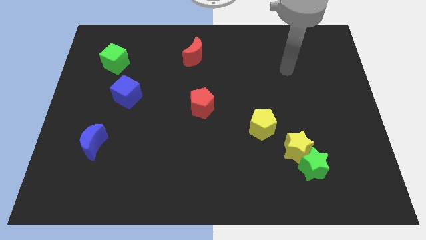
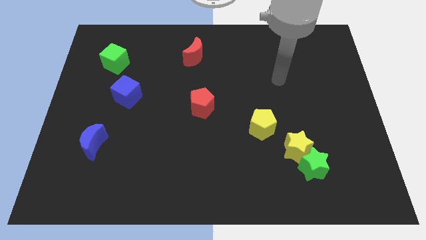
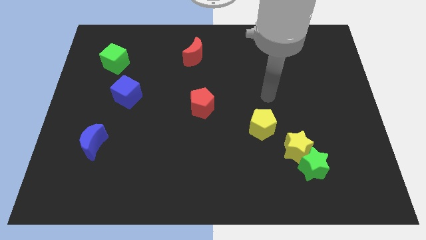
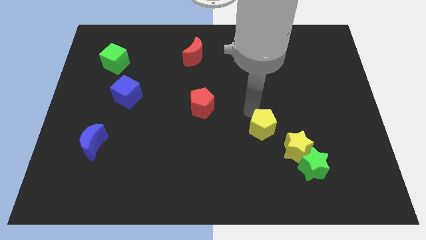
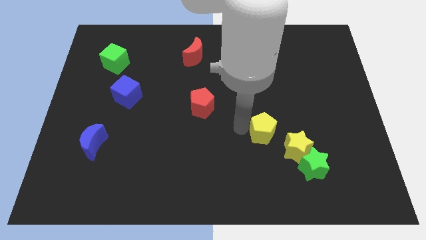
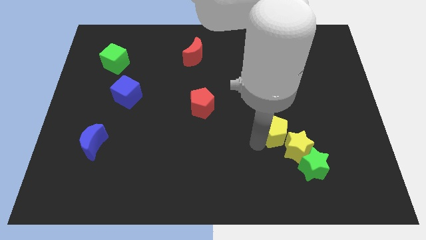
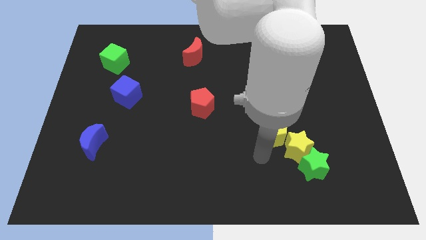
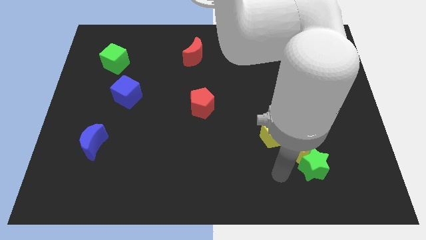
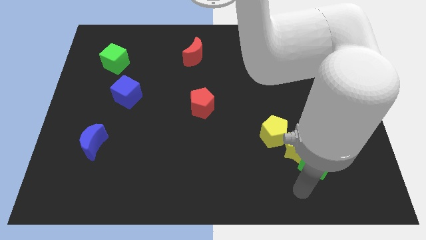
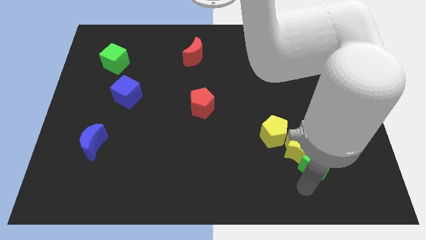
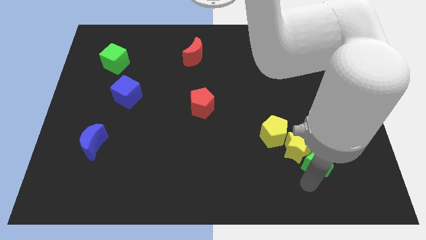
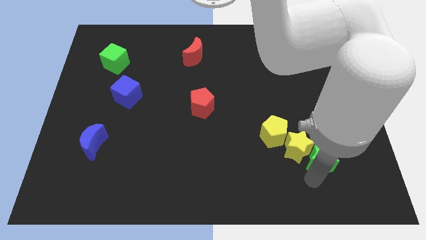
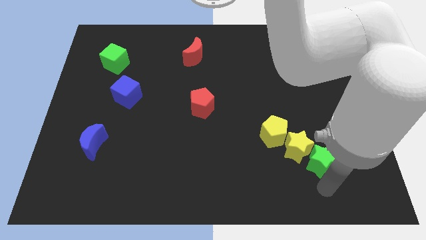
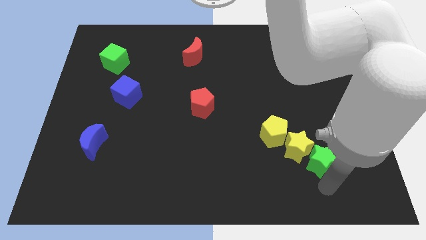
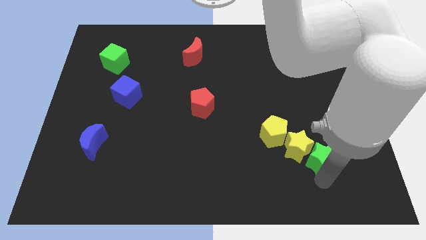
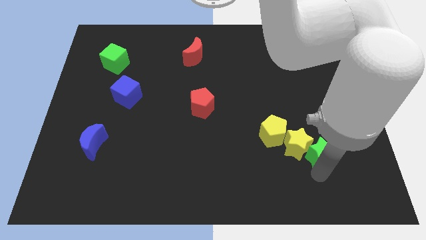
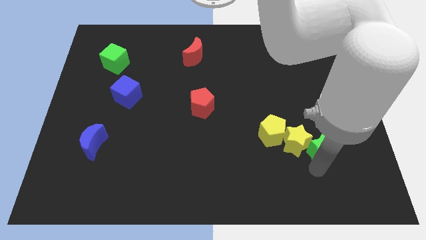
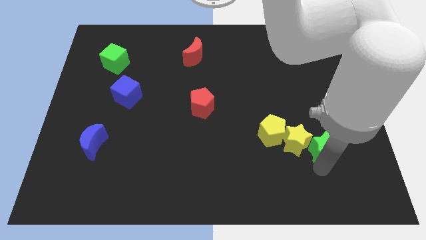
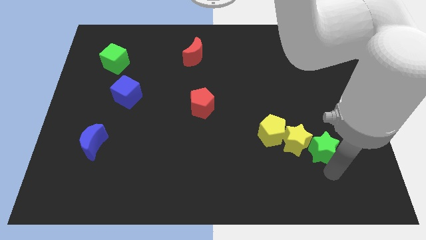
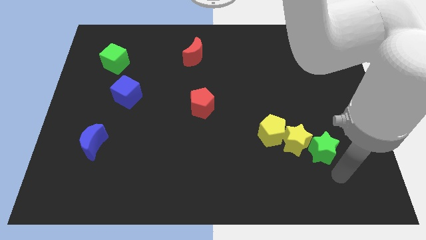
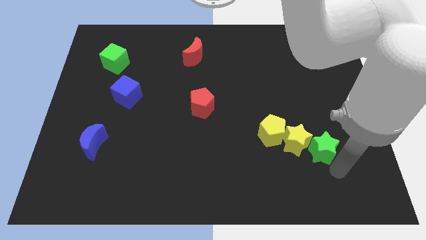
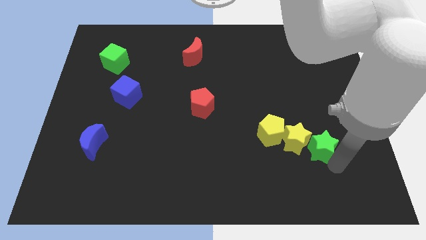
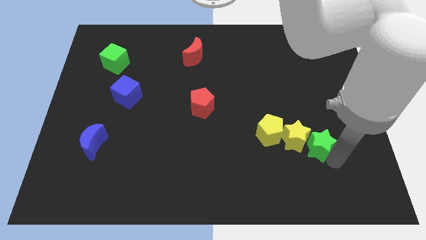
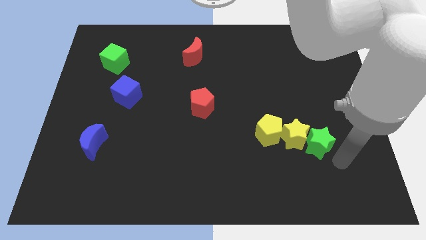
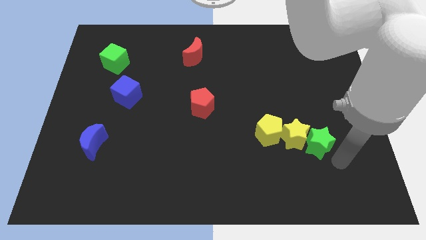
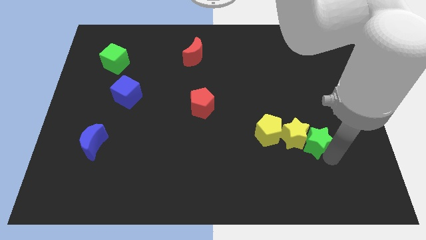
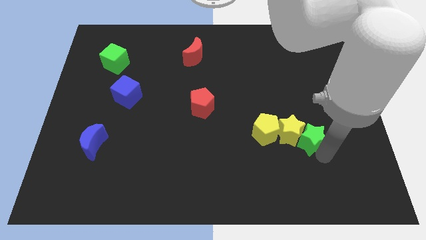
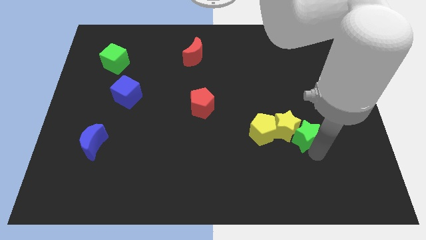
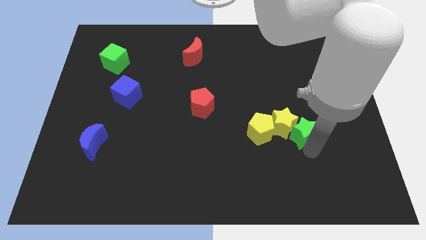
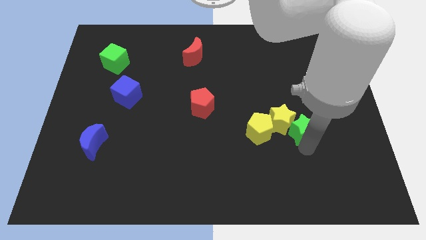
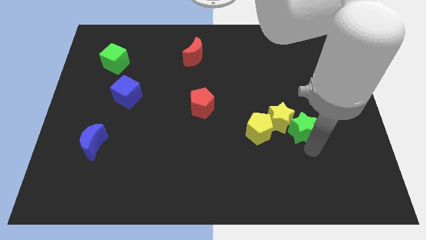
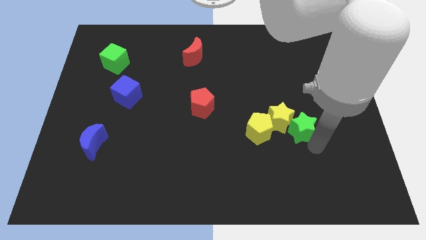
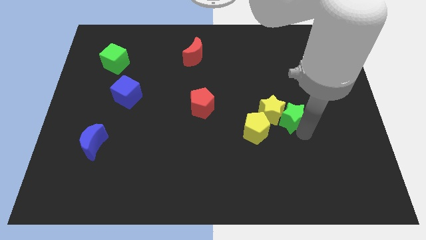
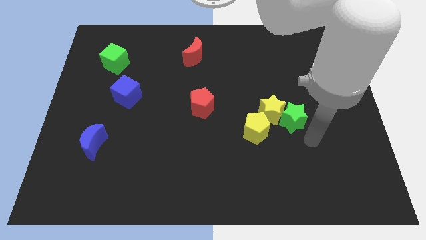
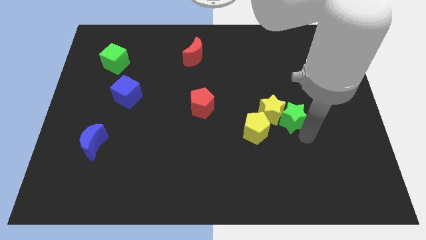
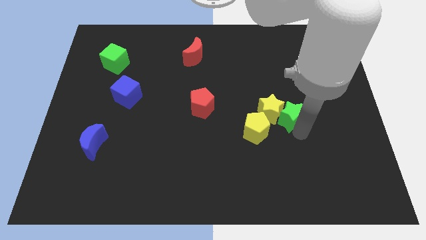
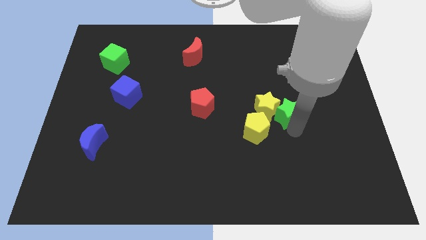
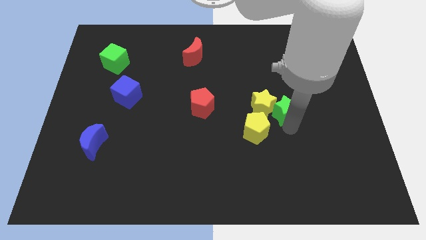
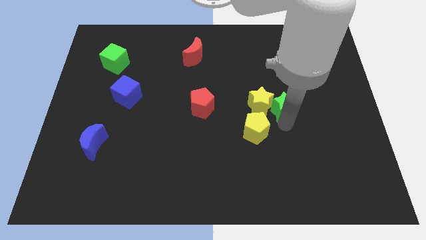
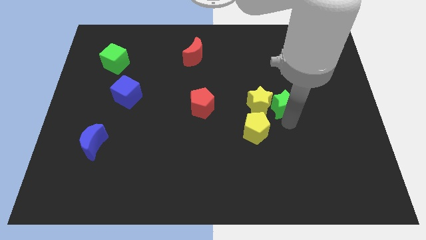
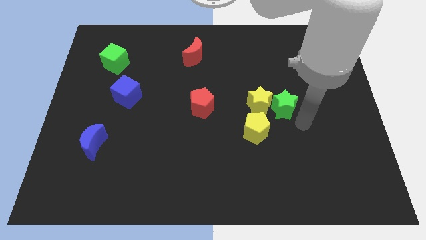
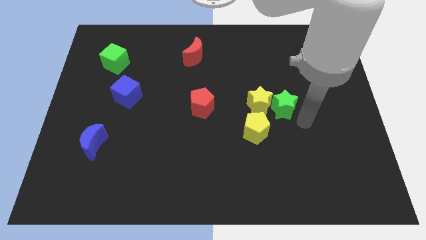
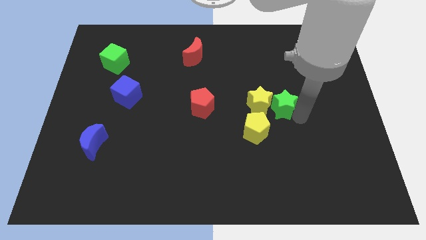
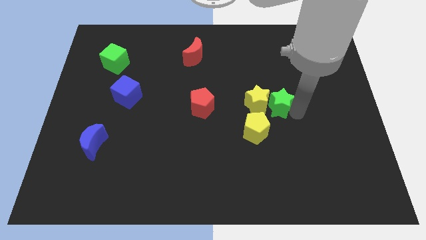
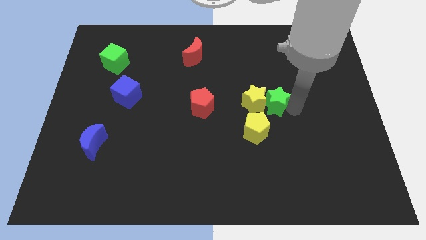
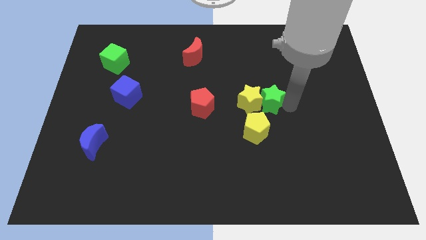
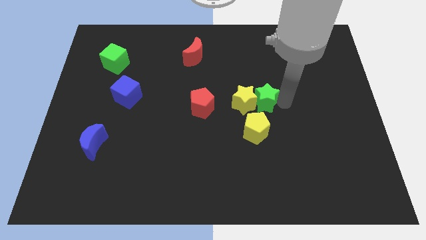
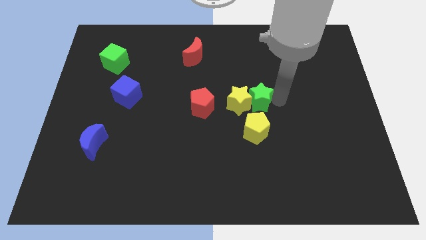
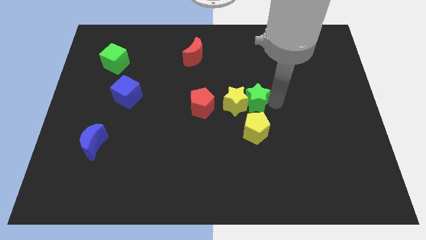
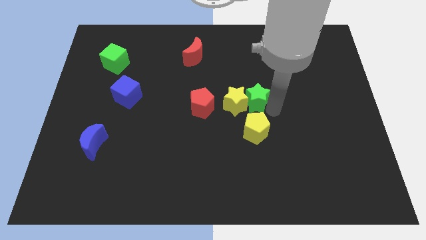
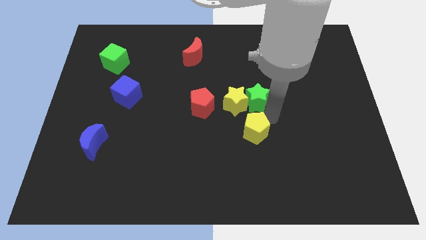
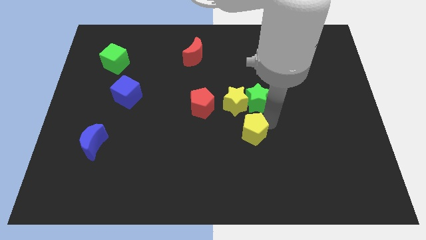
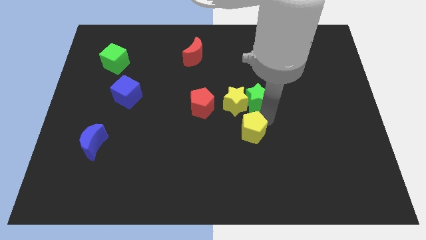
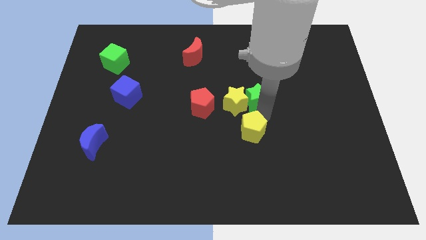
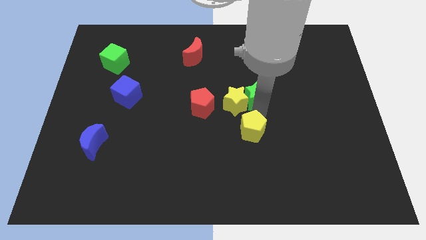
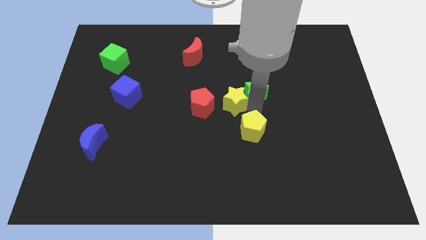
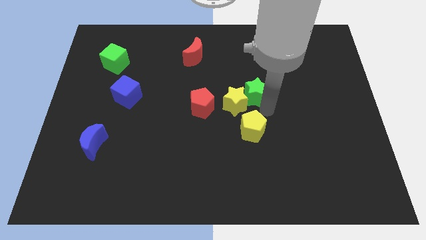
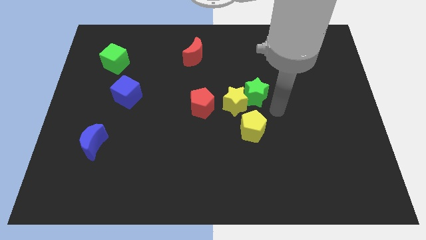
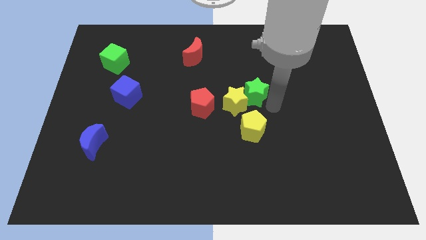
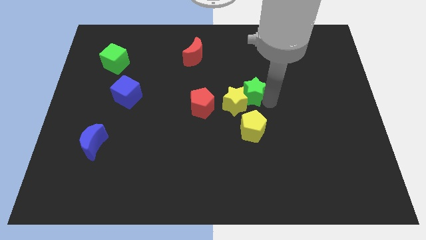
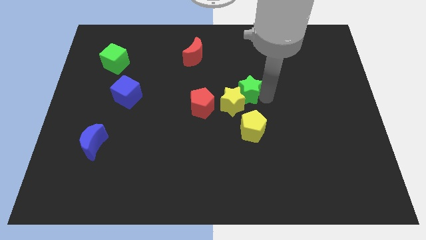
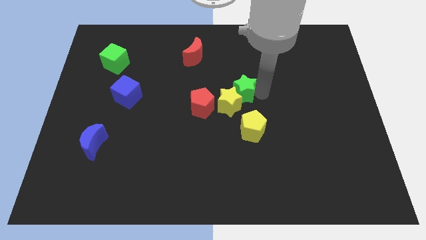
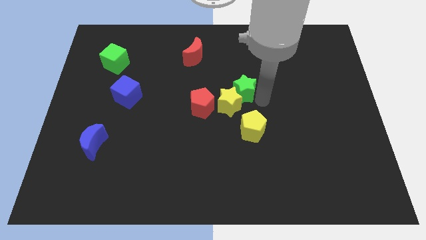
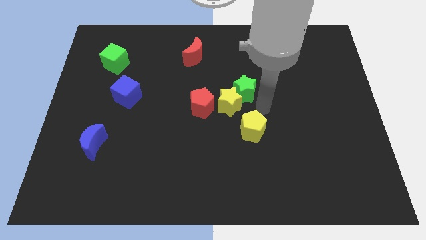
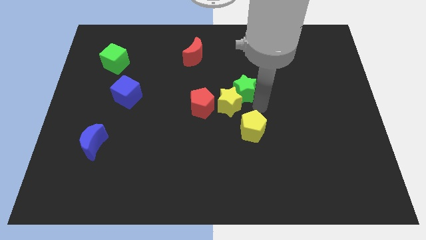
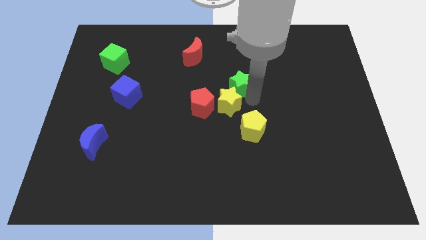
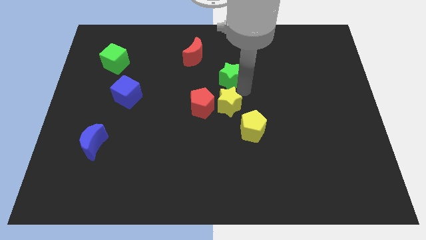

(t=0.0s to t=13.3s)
put the green star diagonally down and to the right of the red moon
